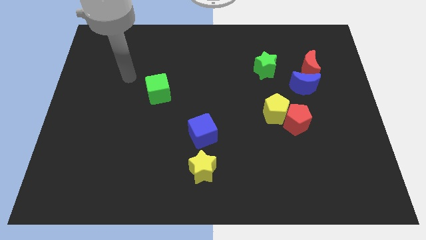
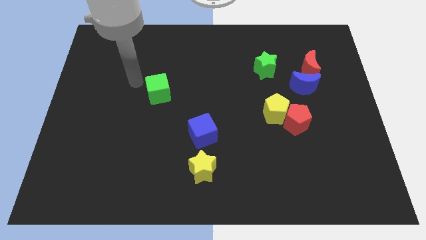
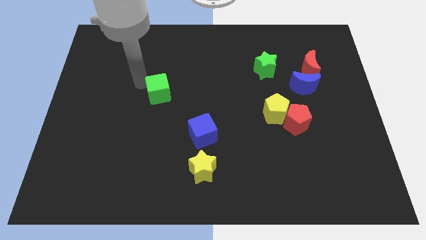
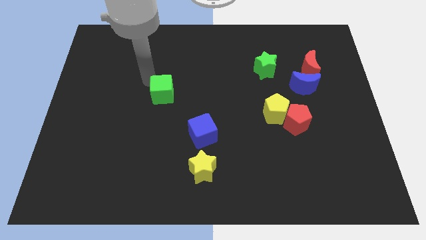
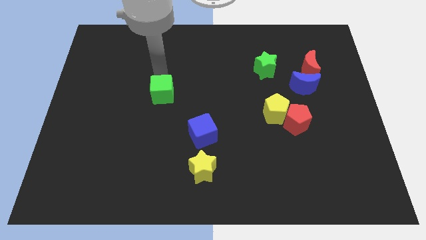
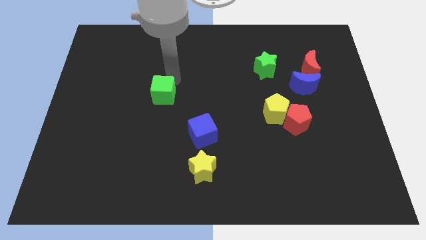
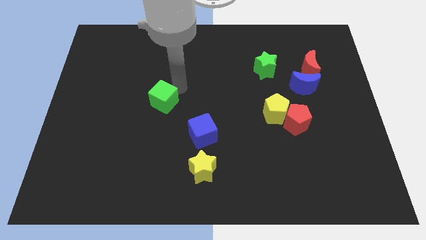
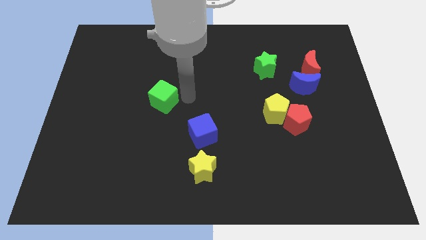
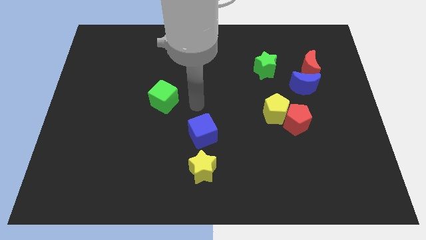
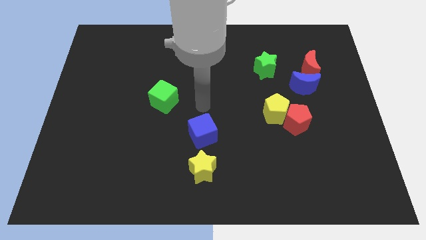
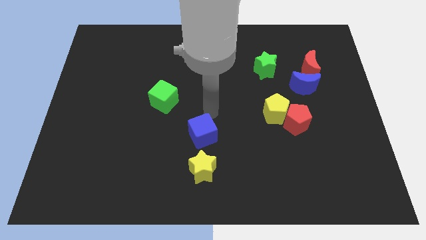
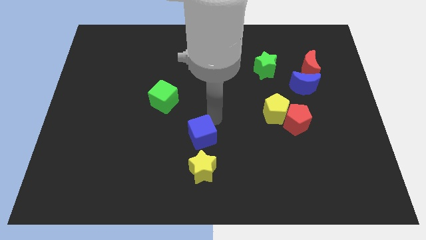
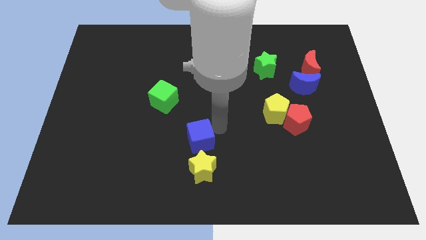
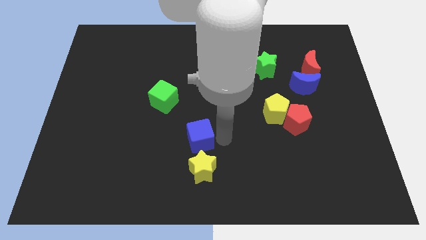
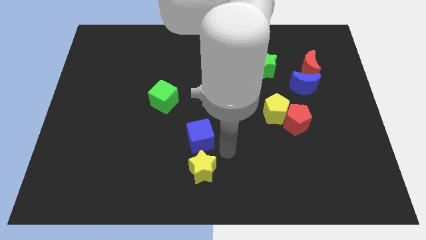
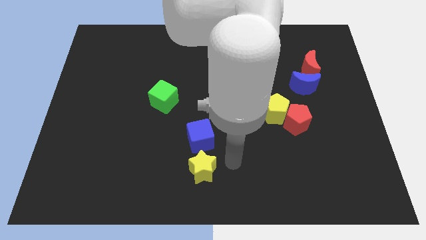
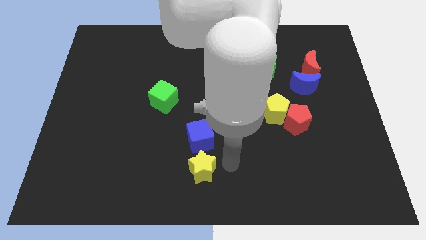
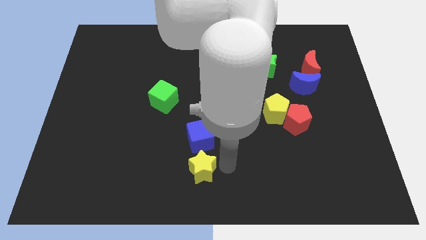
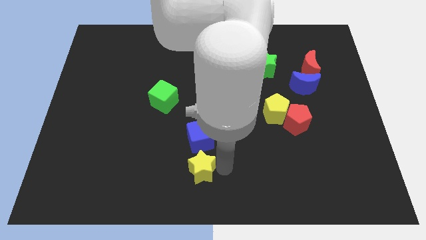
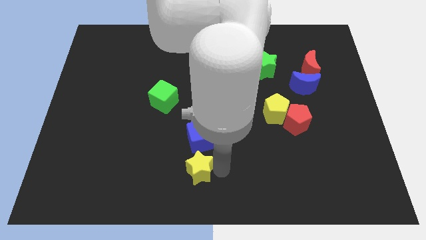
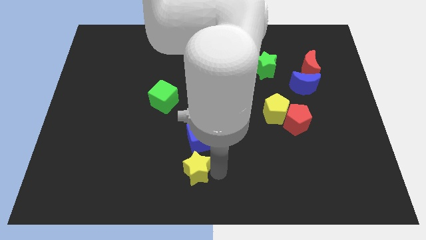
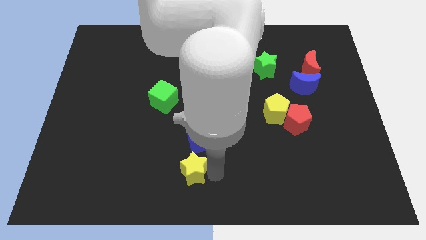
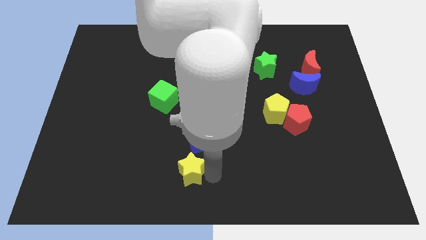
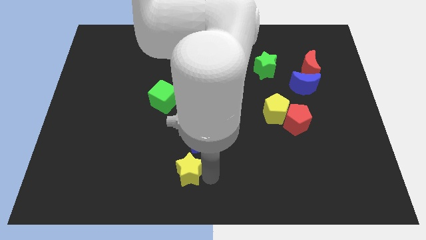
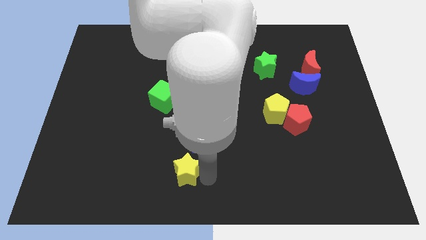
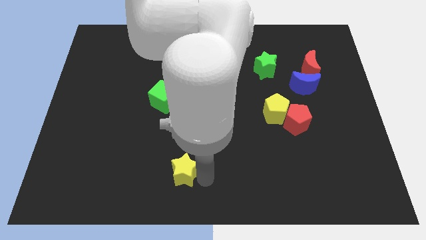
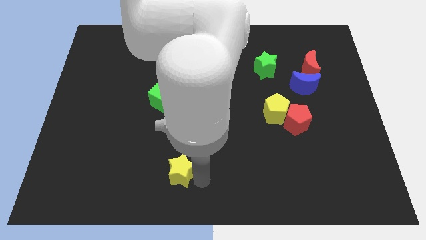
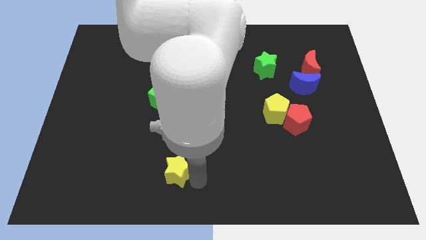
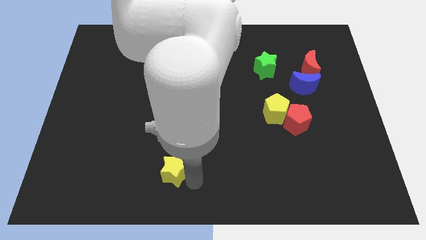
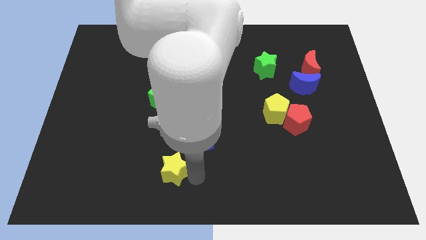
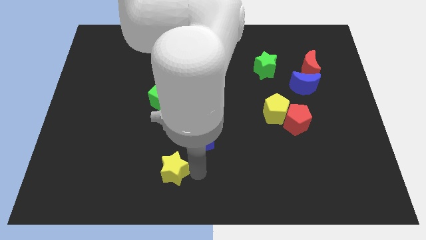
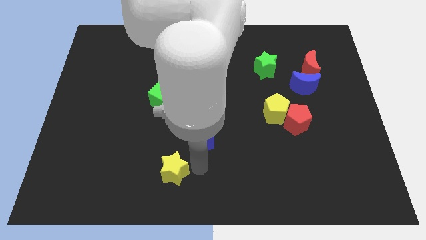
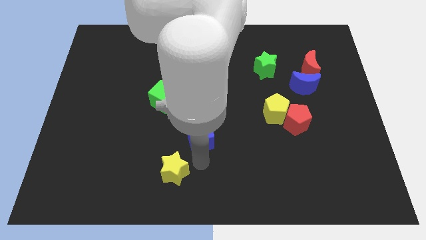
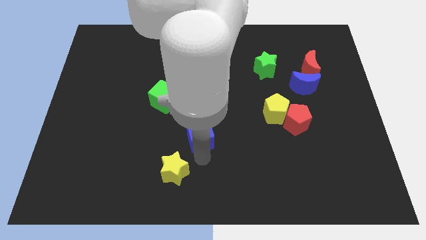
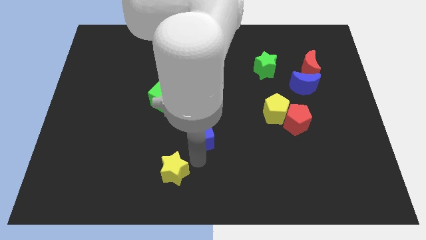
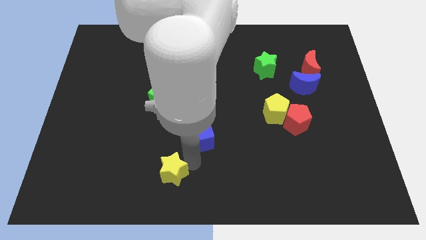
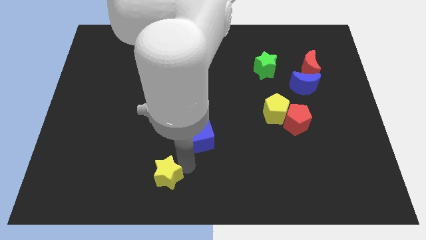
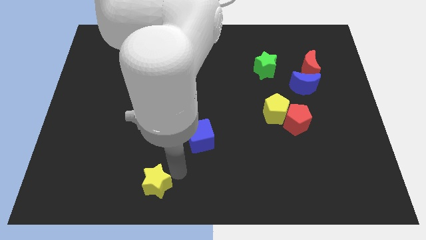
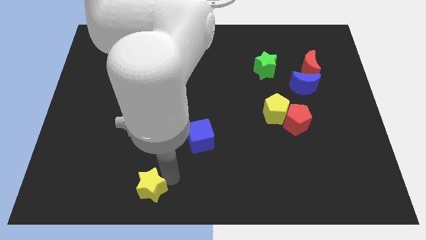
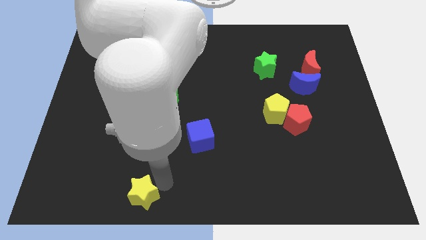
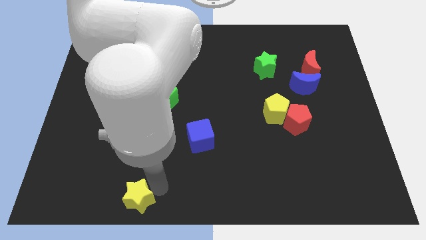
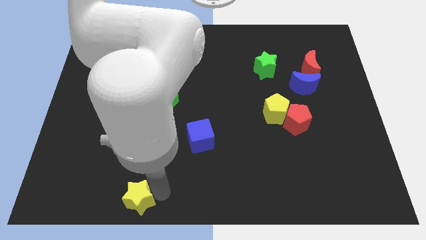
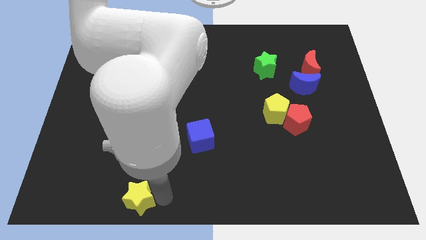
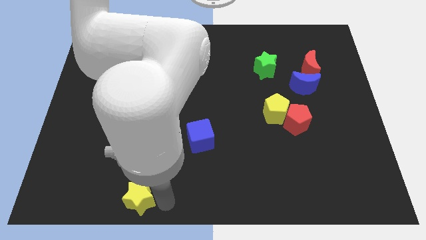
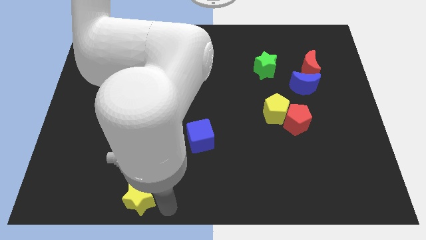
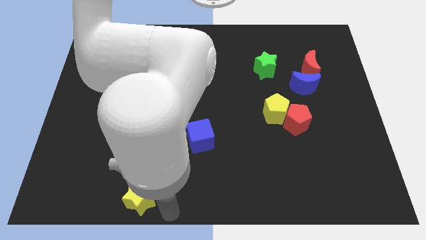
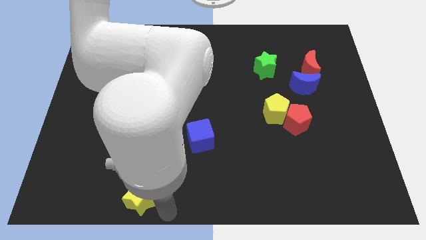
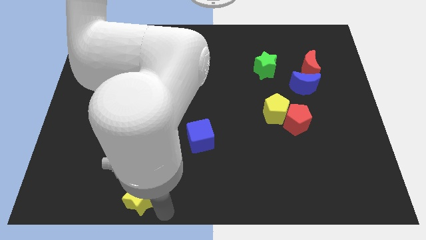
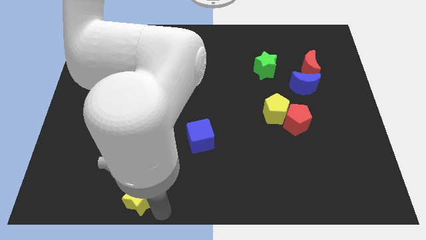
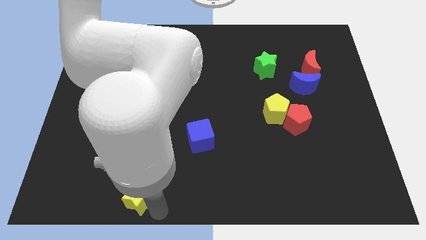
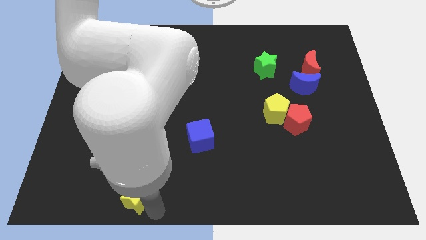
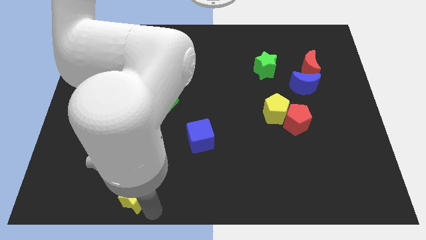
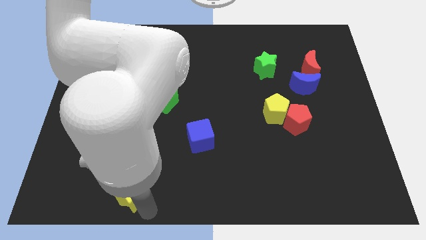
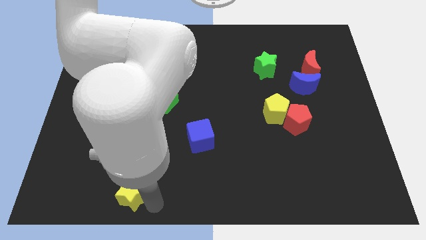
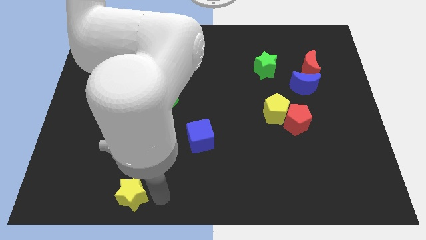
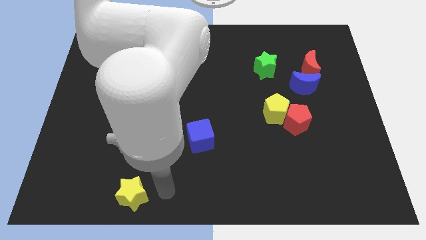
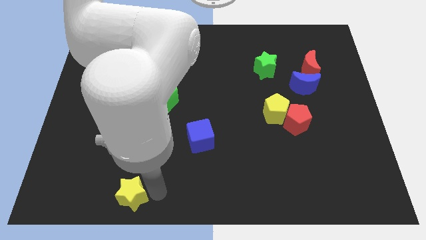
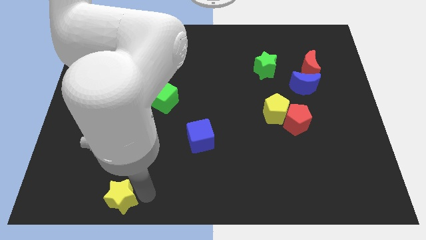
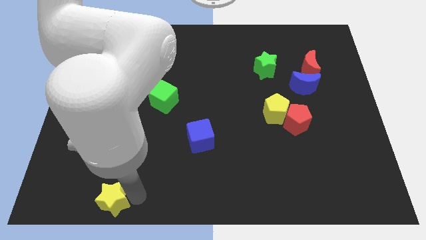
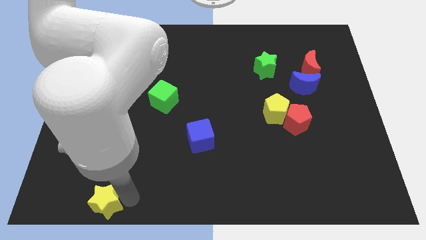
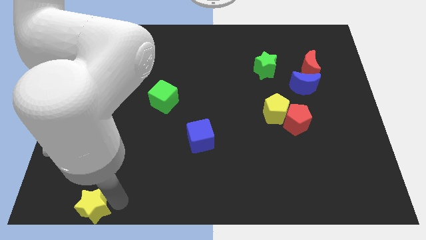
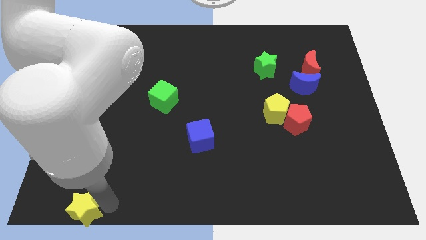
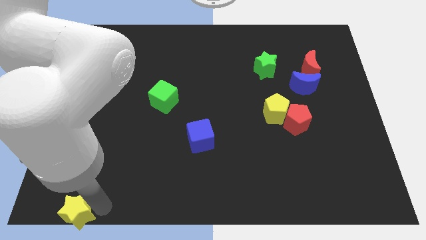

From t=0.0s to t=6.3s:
put the yellow star to the lower left corner
